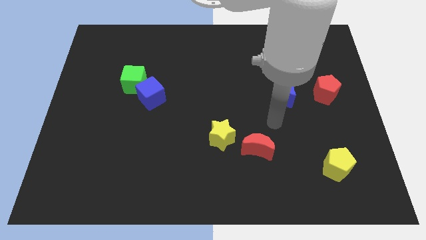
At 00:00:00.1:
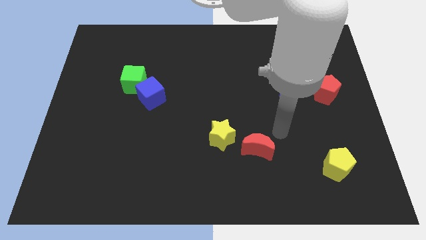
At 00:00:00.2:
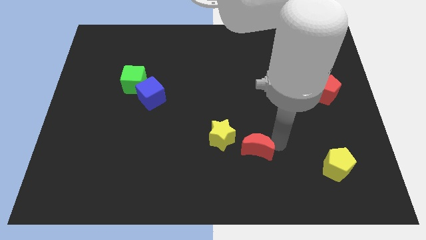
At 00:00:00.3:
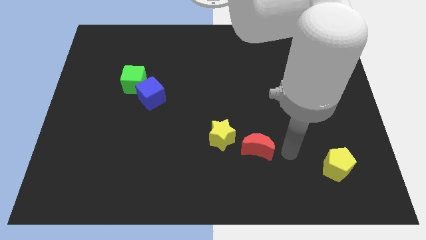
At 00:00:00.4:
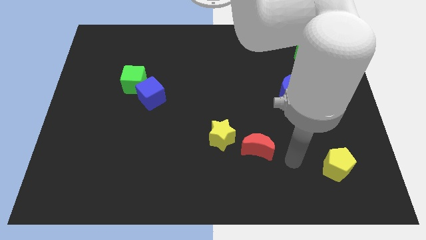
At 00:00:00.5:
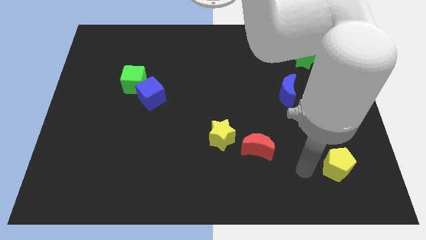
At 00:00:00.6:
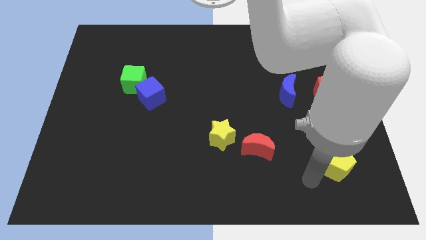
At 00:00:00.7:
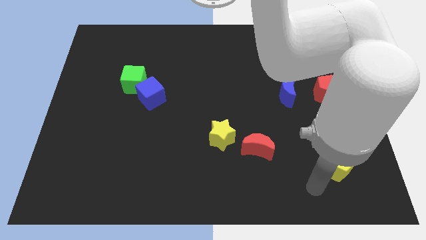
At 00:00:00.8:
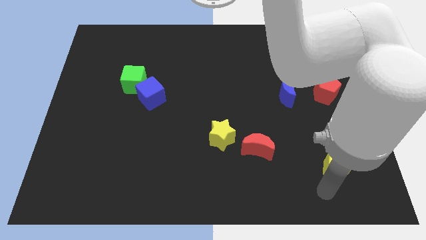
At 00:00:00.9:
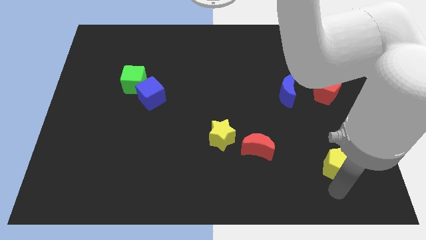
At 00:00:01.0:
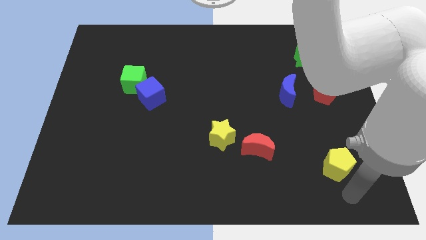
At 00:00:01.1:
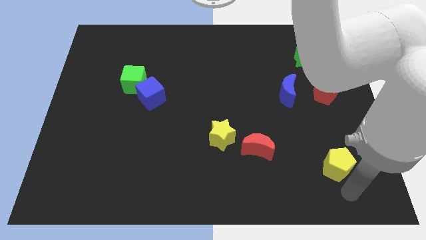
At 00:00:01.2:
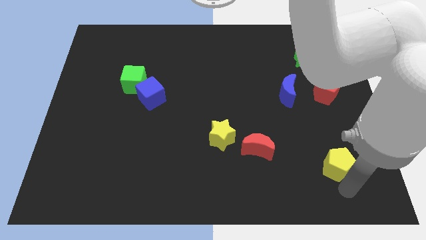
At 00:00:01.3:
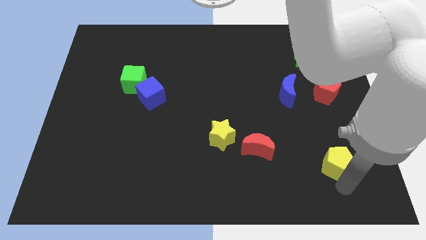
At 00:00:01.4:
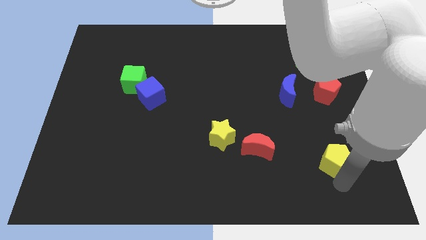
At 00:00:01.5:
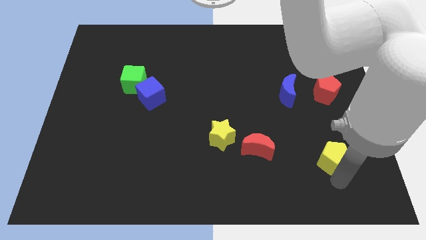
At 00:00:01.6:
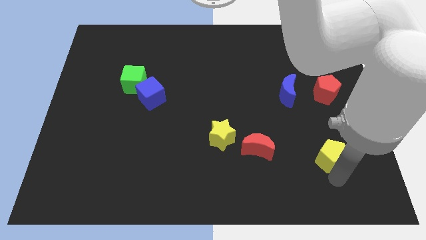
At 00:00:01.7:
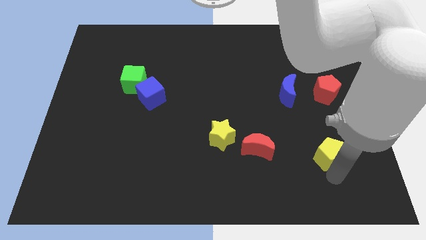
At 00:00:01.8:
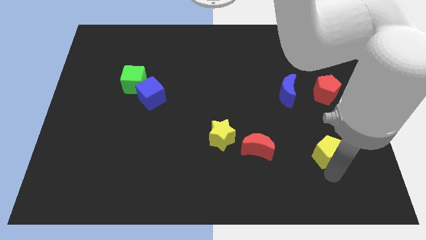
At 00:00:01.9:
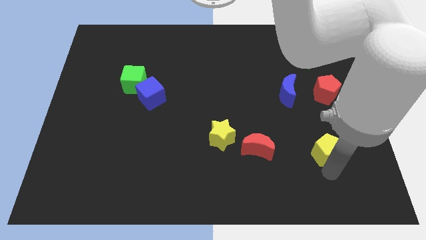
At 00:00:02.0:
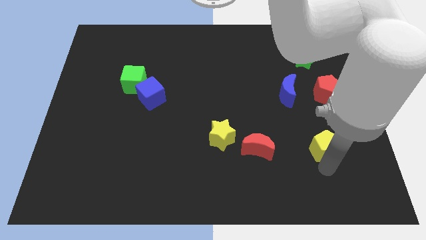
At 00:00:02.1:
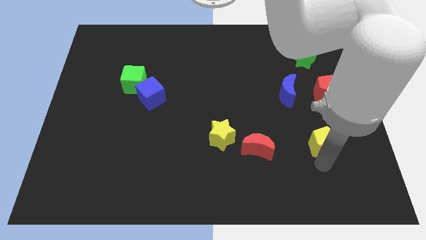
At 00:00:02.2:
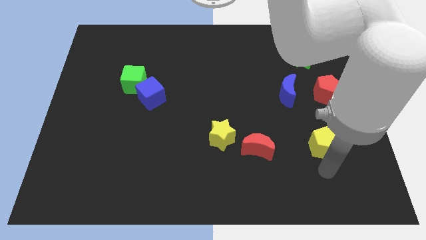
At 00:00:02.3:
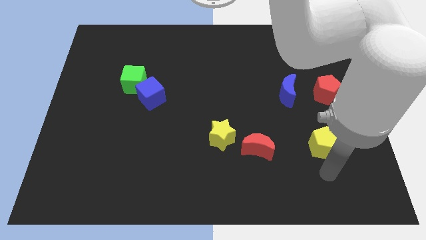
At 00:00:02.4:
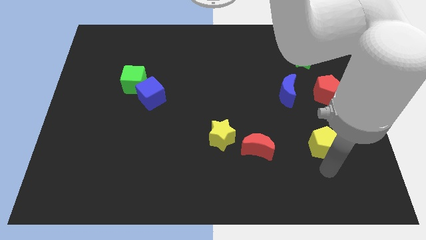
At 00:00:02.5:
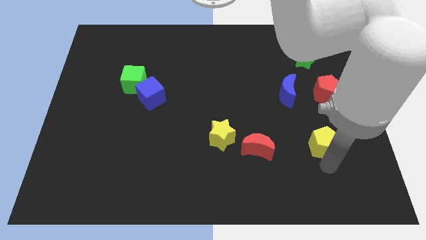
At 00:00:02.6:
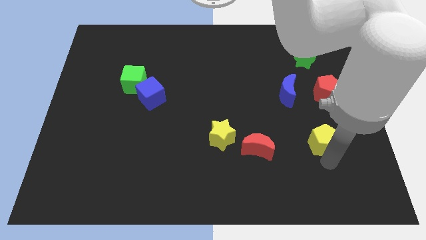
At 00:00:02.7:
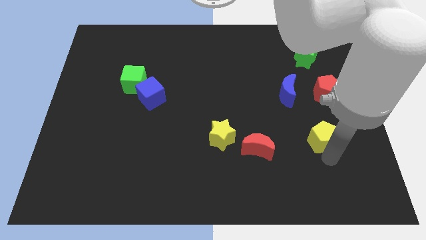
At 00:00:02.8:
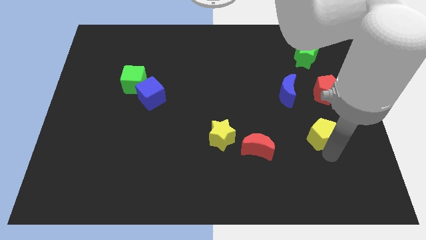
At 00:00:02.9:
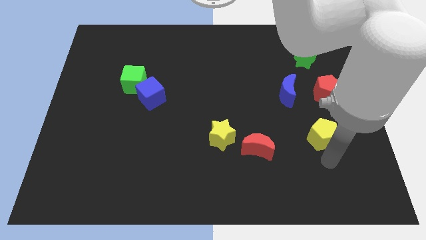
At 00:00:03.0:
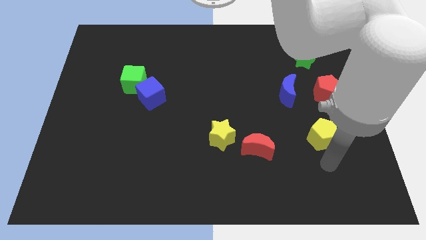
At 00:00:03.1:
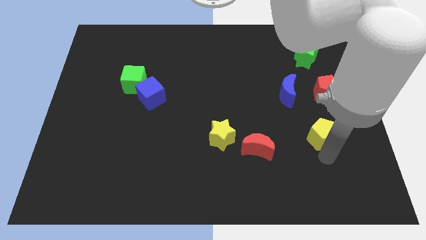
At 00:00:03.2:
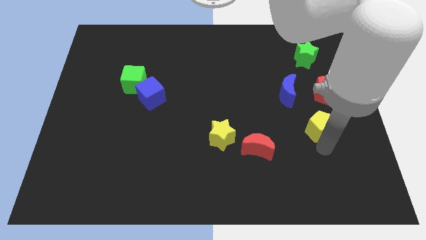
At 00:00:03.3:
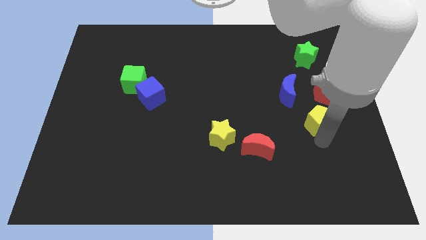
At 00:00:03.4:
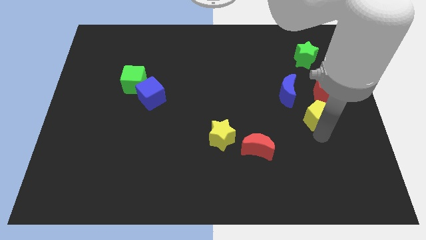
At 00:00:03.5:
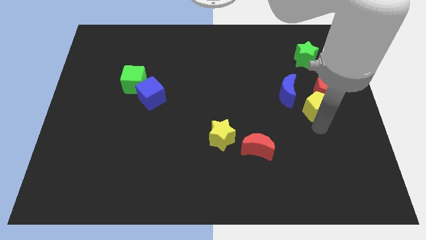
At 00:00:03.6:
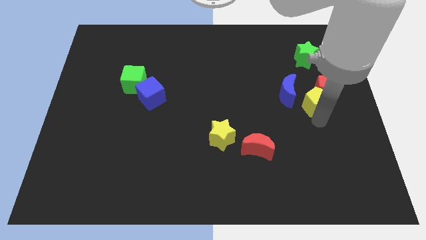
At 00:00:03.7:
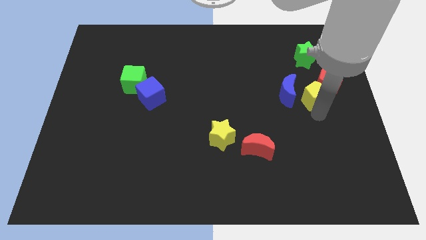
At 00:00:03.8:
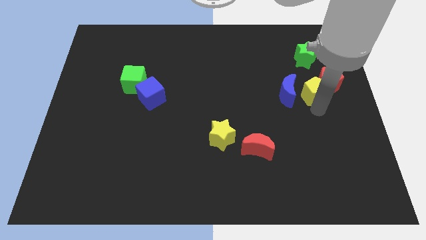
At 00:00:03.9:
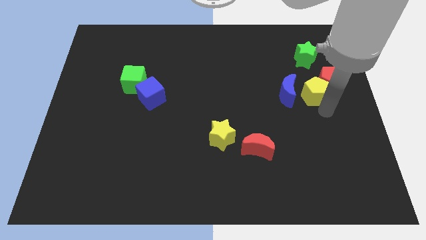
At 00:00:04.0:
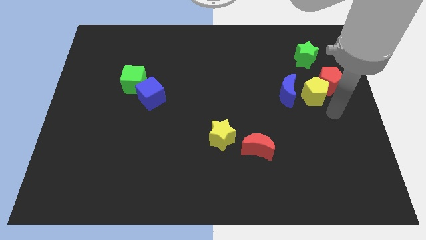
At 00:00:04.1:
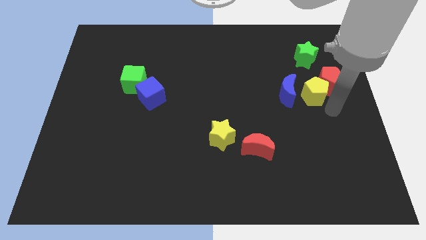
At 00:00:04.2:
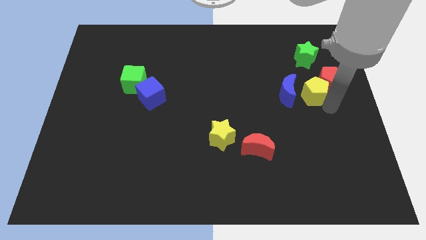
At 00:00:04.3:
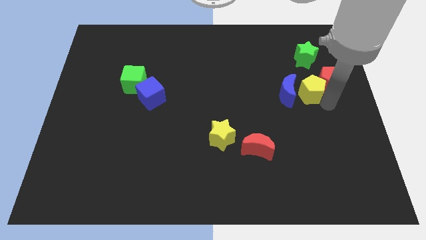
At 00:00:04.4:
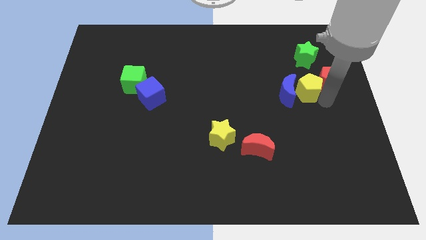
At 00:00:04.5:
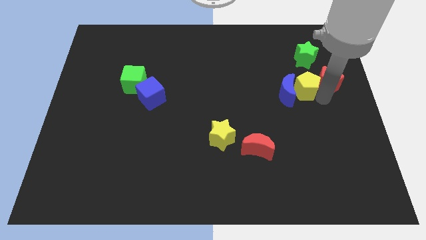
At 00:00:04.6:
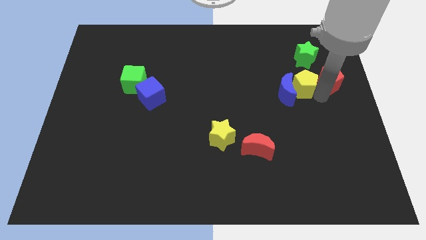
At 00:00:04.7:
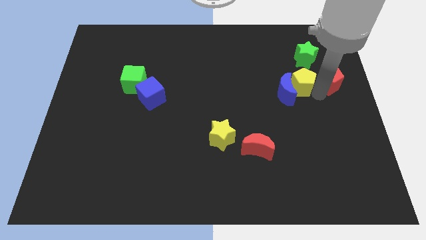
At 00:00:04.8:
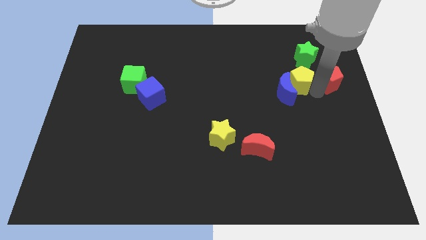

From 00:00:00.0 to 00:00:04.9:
put the yellow pentagon to the bottom left of the green star

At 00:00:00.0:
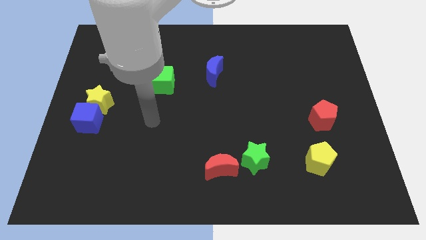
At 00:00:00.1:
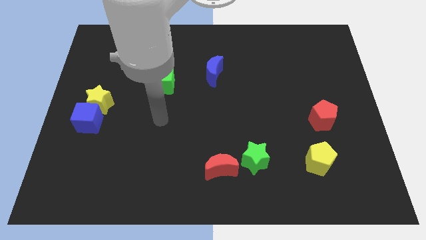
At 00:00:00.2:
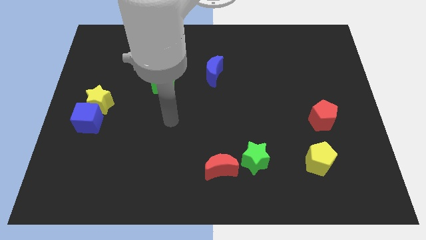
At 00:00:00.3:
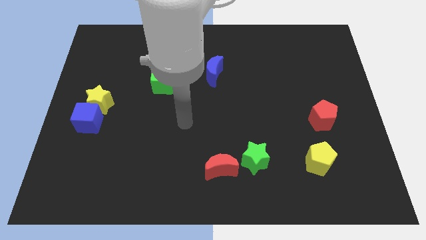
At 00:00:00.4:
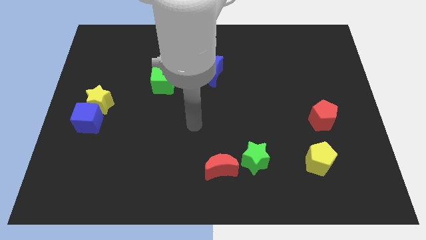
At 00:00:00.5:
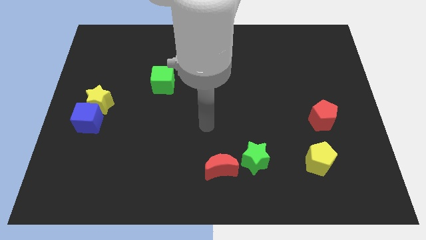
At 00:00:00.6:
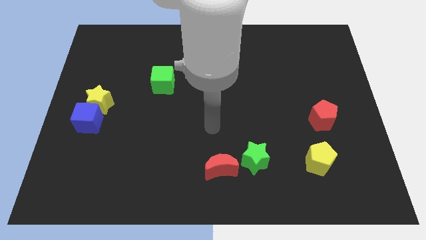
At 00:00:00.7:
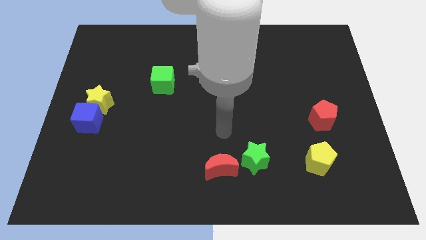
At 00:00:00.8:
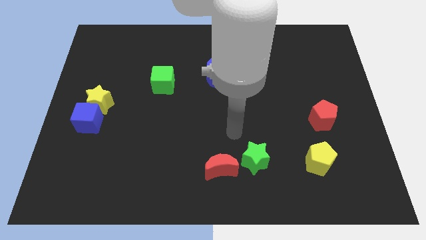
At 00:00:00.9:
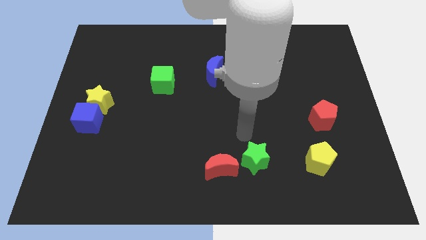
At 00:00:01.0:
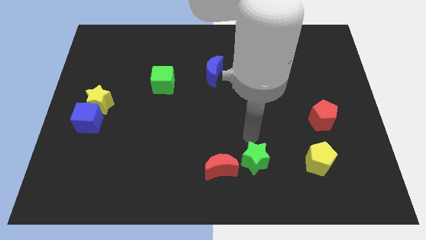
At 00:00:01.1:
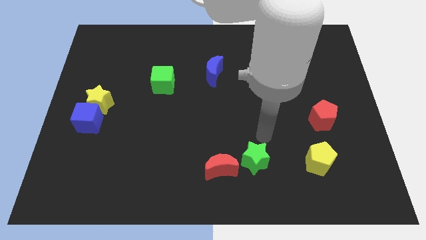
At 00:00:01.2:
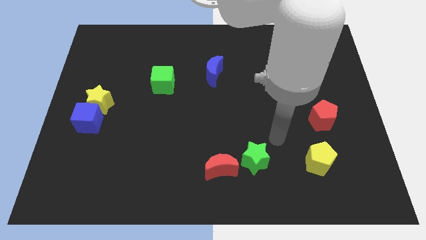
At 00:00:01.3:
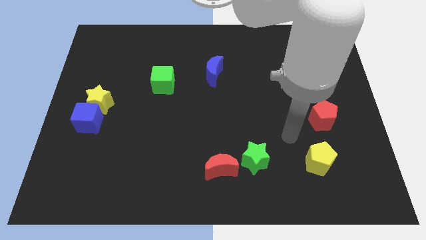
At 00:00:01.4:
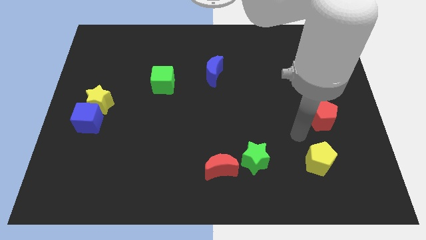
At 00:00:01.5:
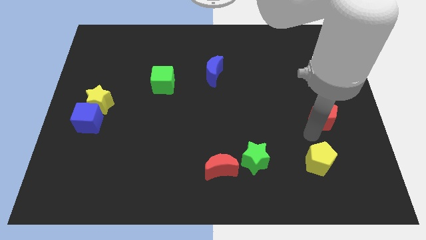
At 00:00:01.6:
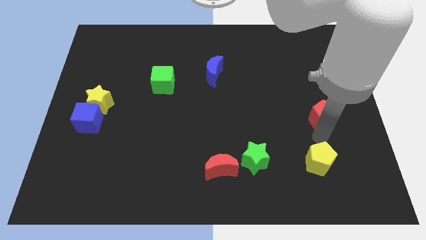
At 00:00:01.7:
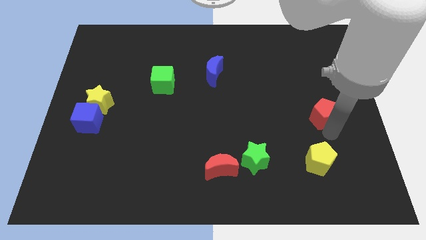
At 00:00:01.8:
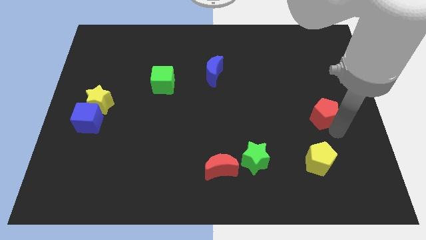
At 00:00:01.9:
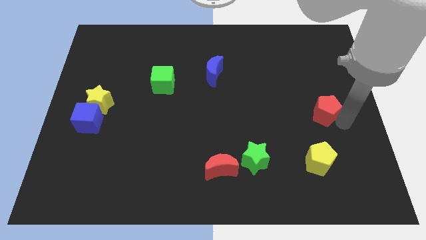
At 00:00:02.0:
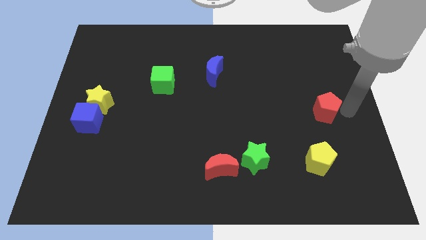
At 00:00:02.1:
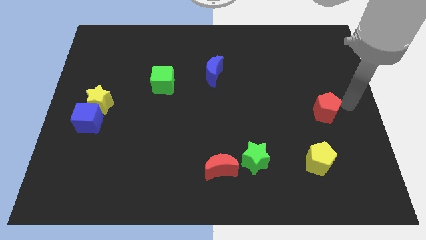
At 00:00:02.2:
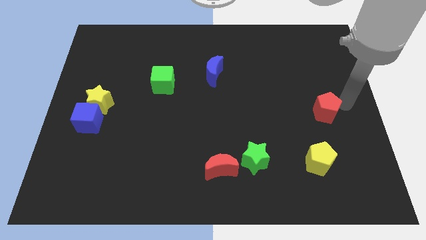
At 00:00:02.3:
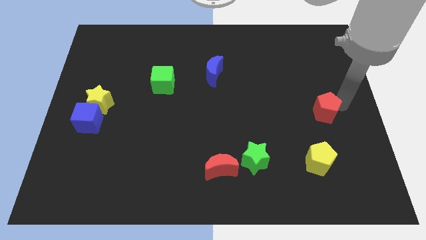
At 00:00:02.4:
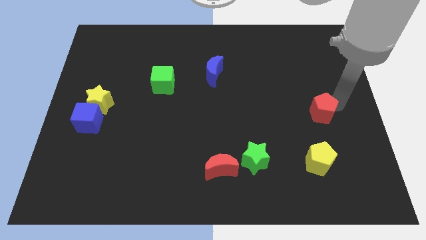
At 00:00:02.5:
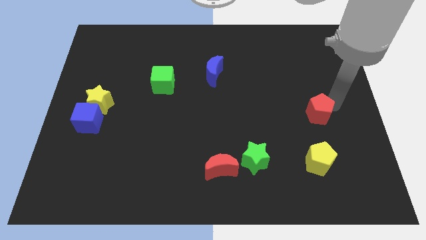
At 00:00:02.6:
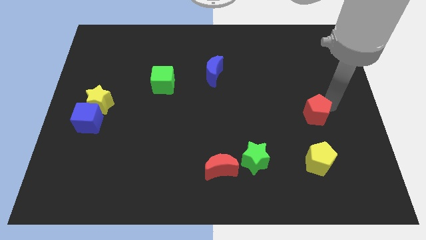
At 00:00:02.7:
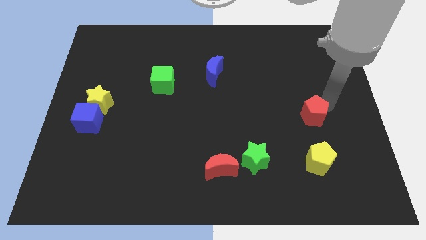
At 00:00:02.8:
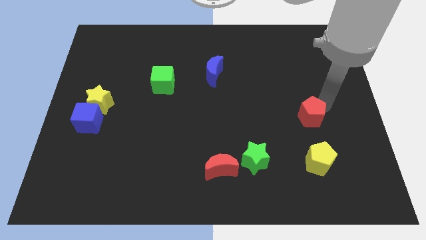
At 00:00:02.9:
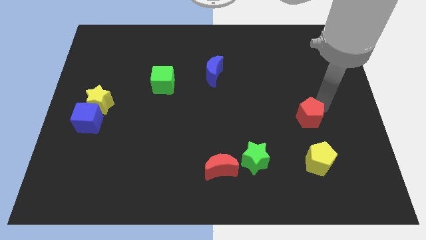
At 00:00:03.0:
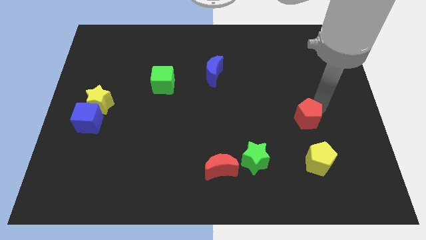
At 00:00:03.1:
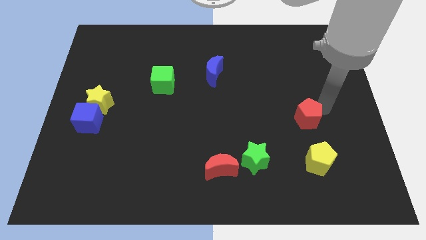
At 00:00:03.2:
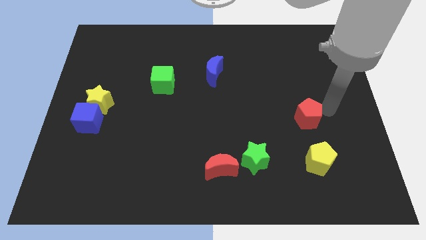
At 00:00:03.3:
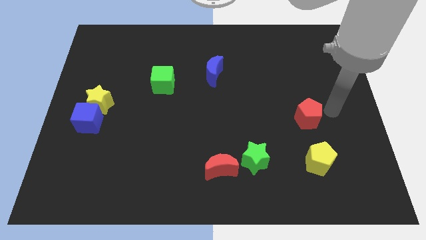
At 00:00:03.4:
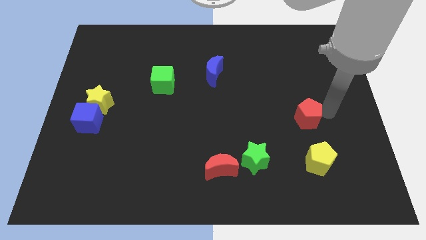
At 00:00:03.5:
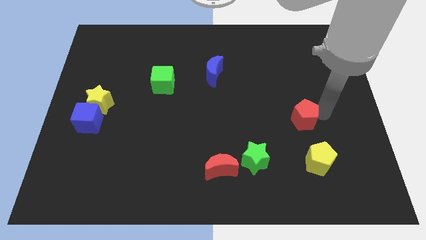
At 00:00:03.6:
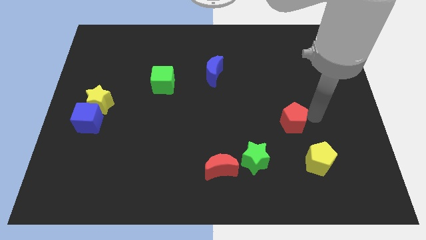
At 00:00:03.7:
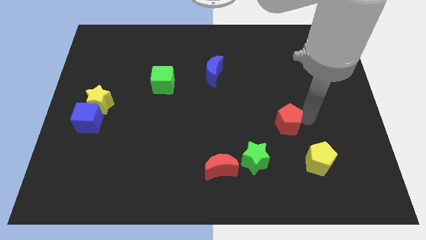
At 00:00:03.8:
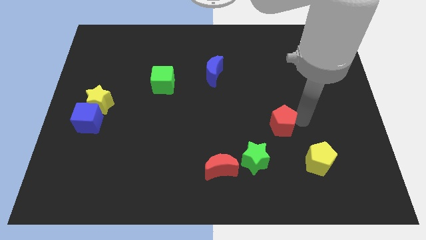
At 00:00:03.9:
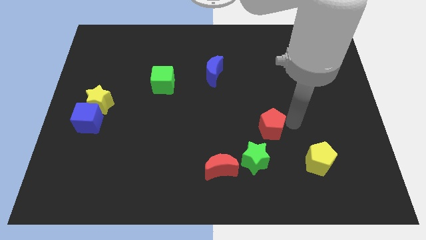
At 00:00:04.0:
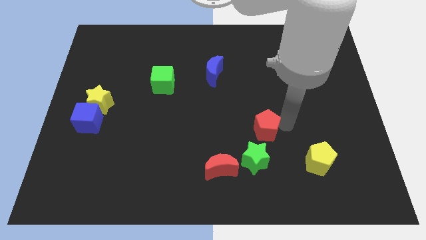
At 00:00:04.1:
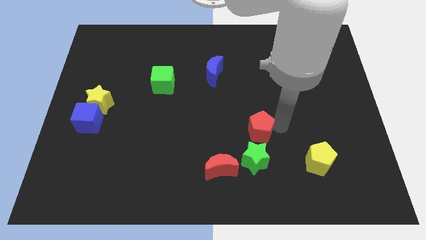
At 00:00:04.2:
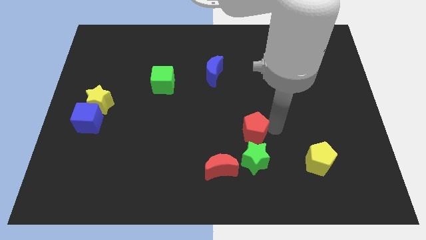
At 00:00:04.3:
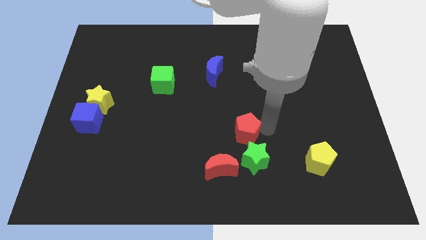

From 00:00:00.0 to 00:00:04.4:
push the red pentagon diagonally up and to the left of the green star
